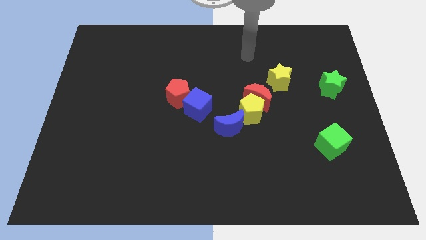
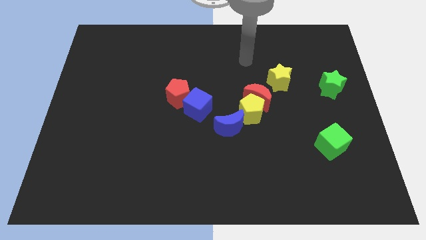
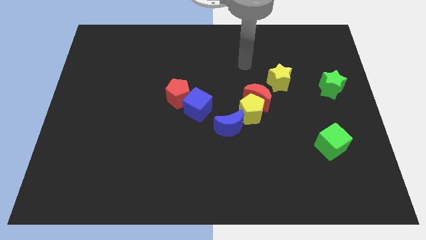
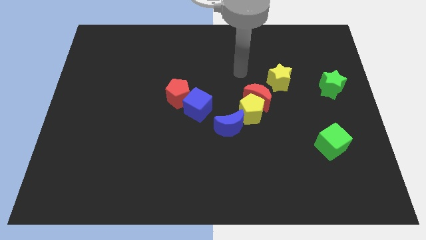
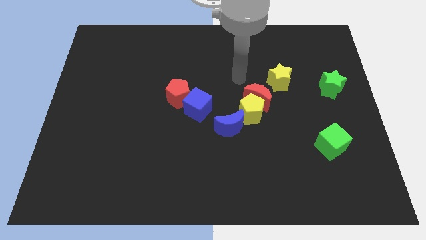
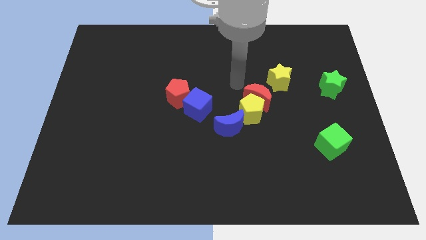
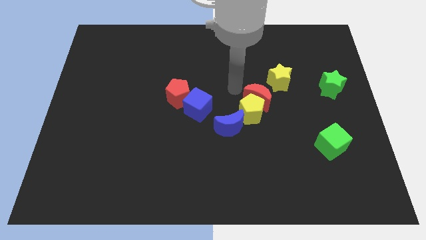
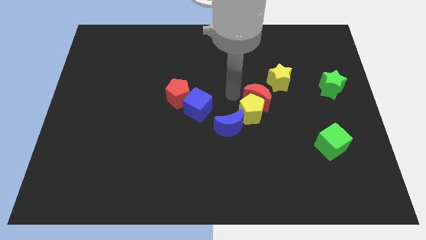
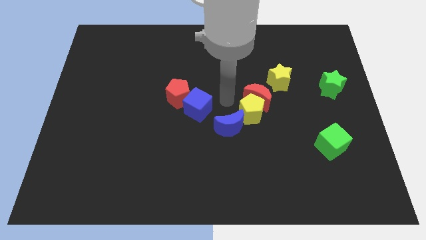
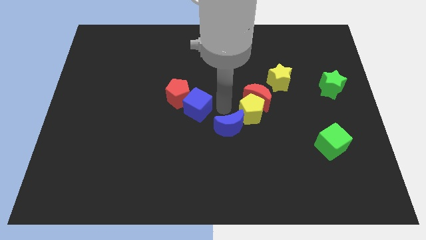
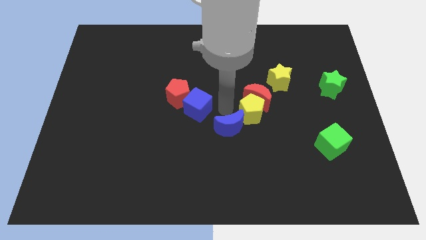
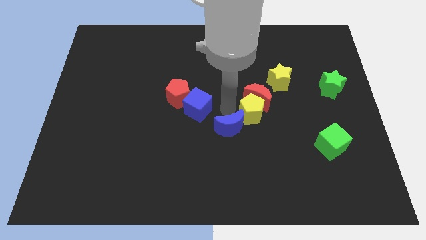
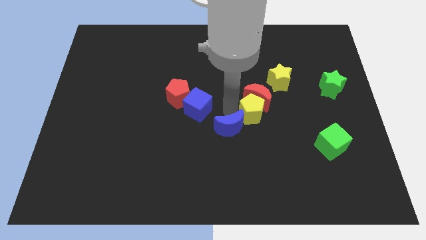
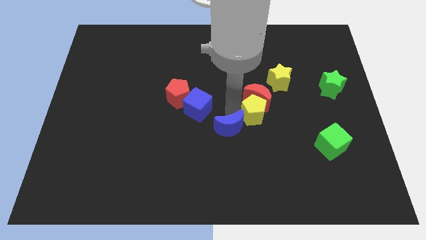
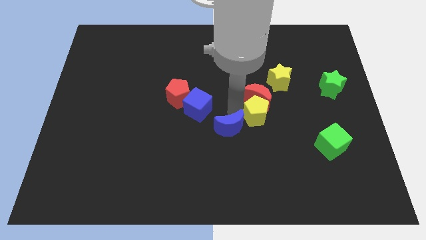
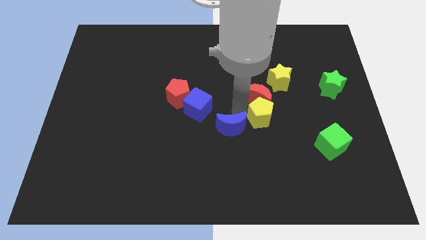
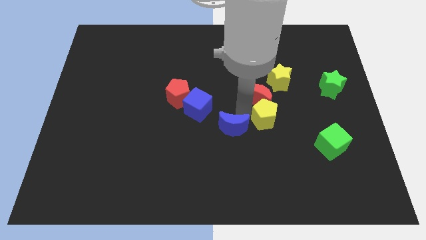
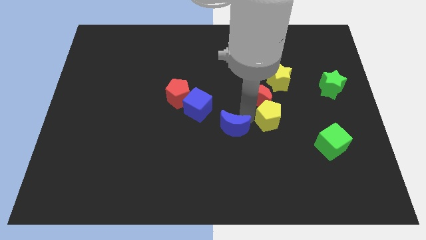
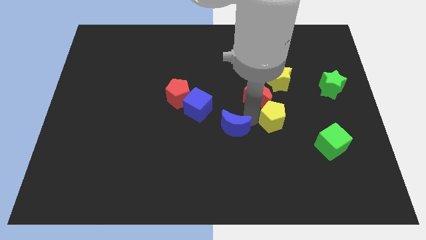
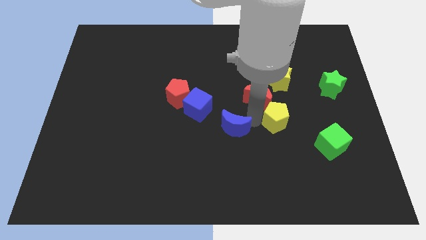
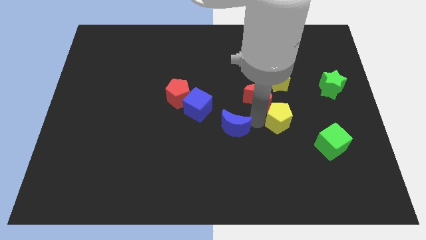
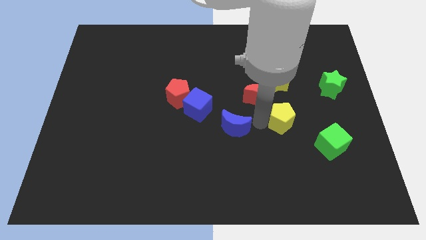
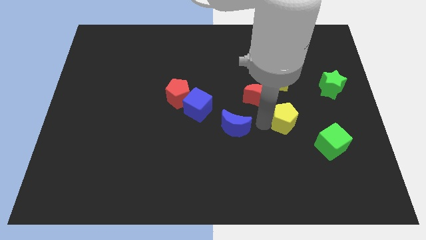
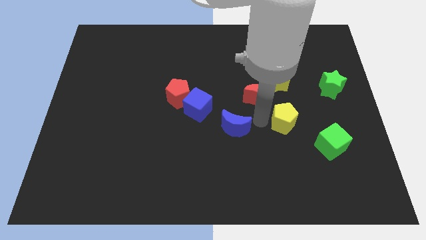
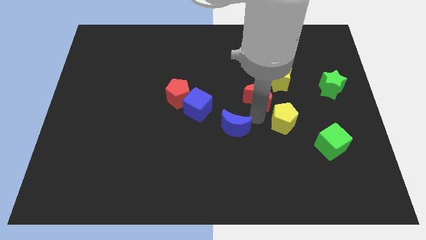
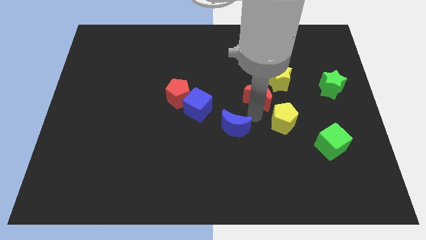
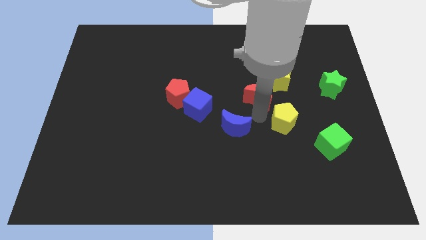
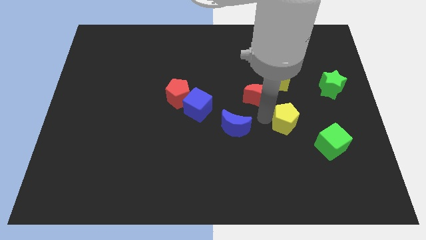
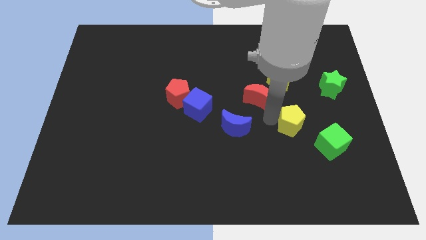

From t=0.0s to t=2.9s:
separate the yellow pentagon from the red moon and blue moon

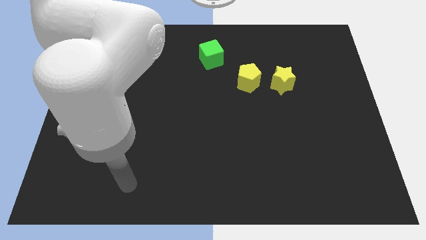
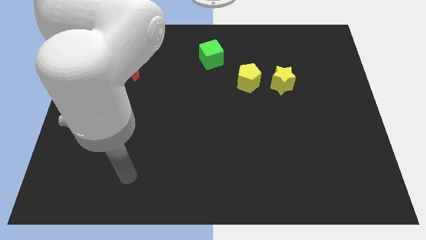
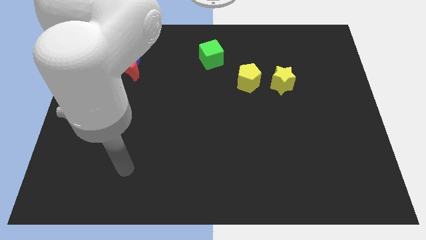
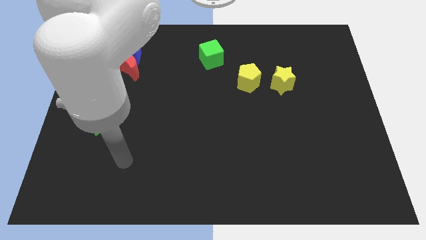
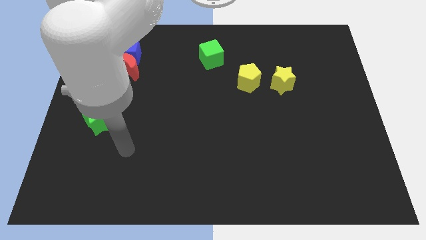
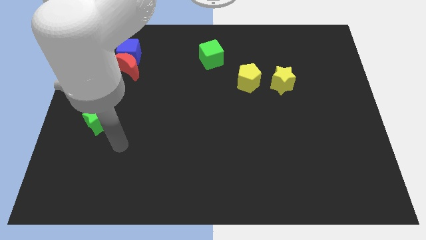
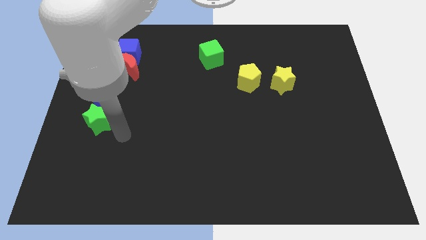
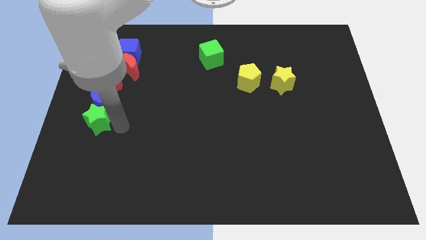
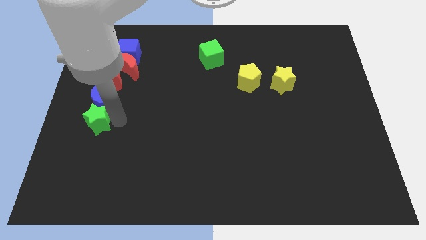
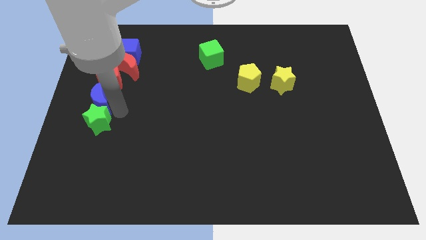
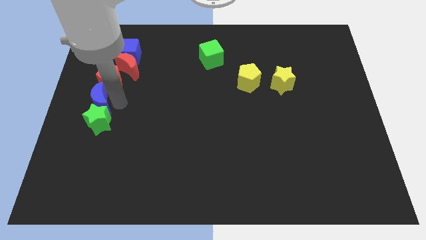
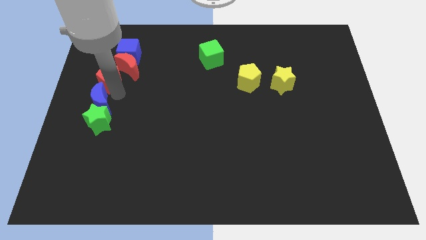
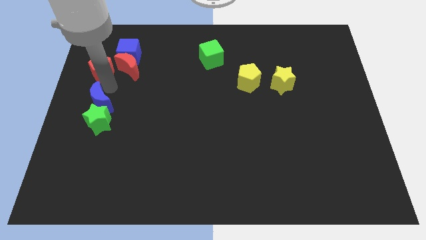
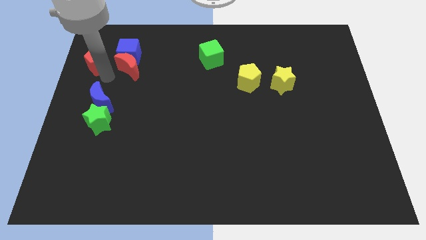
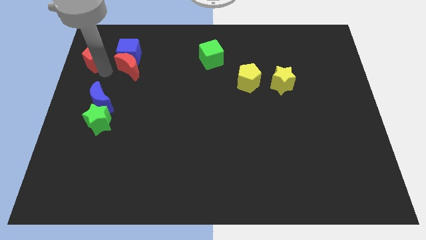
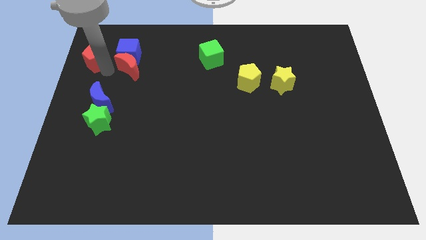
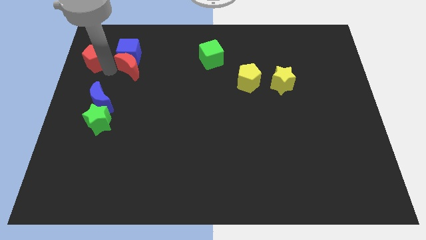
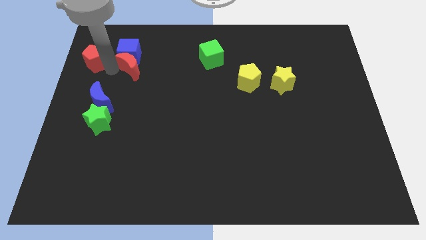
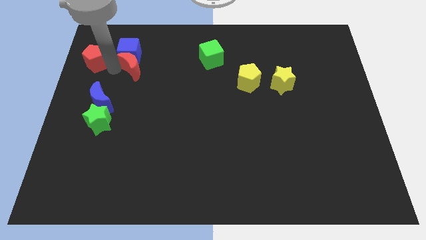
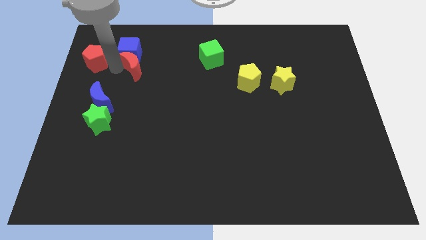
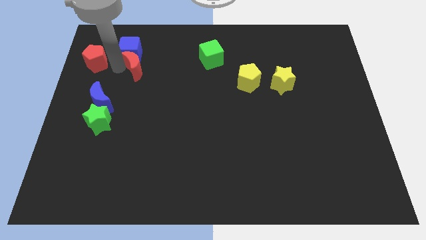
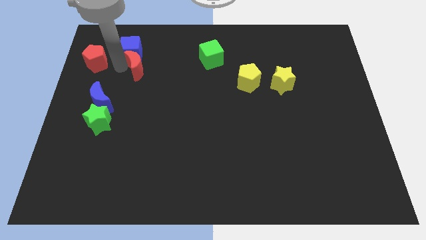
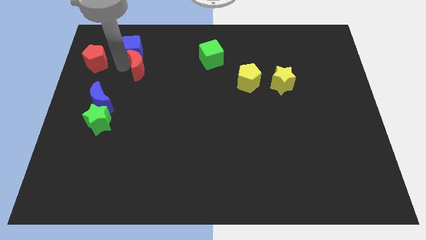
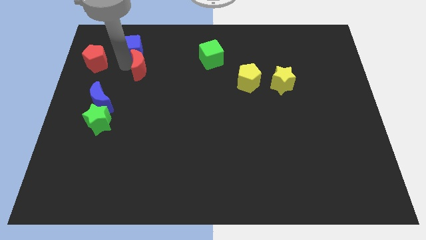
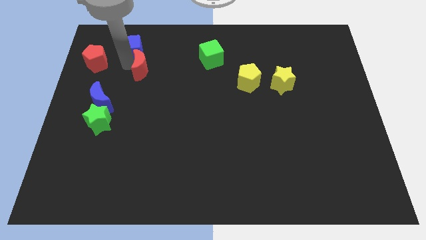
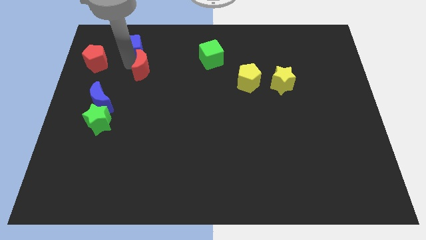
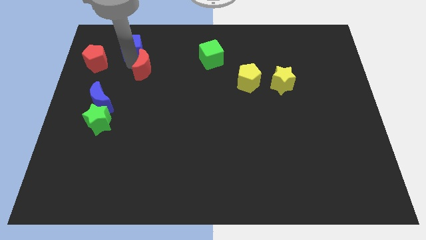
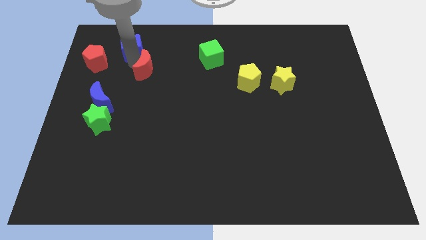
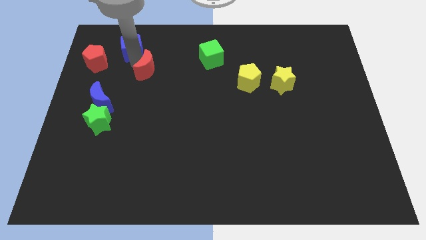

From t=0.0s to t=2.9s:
separate the red moon from the blue cube and red pentagon

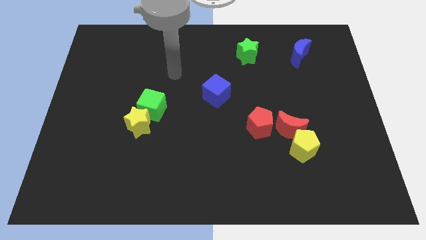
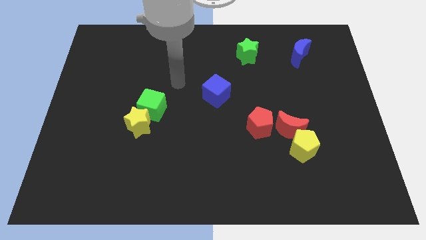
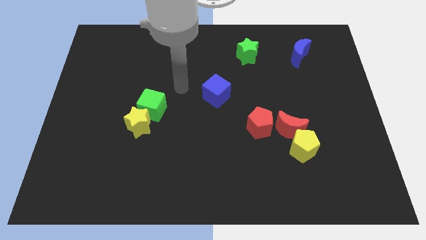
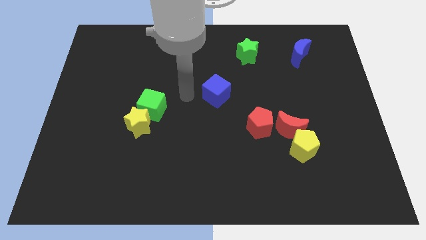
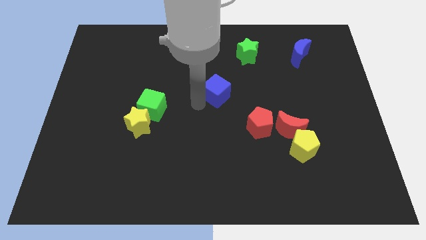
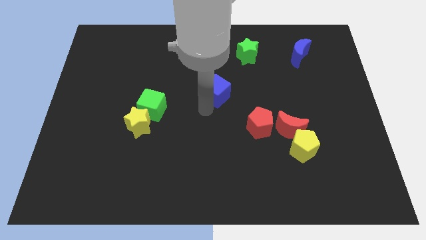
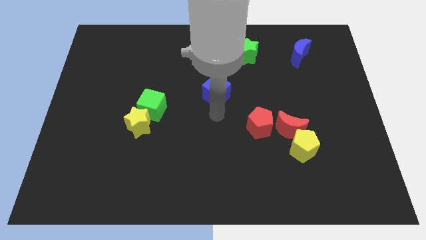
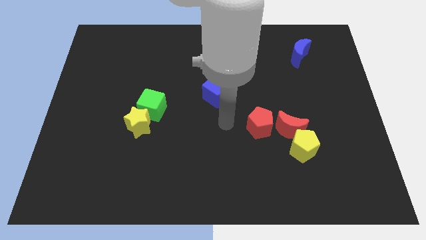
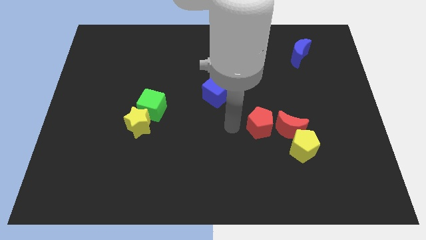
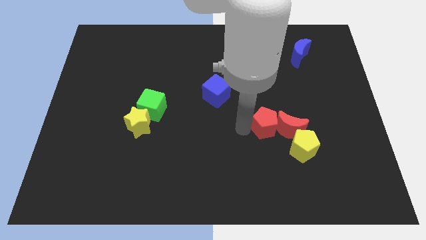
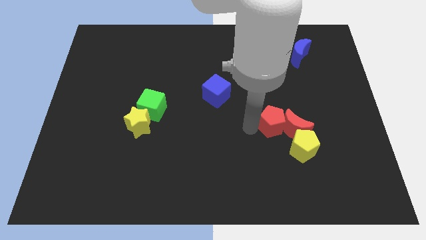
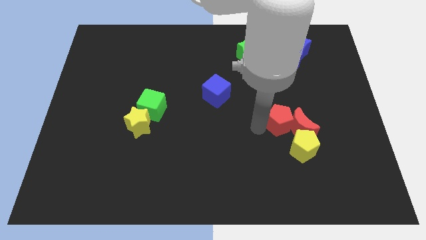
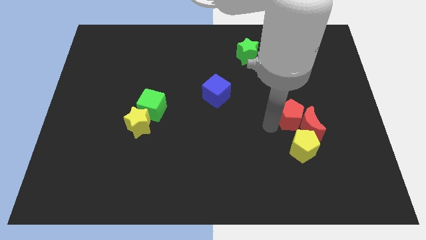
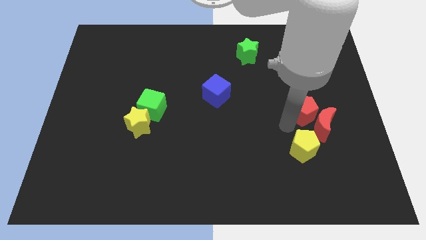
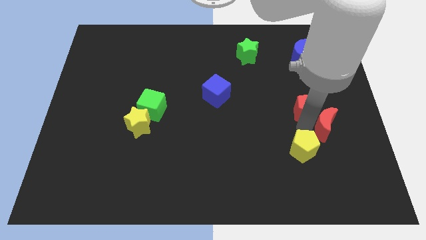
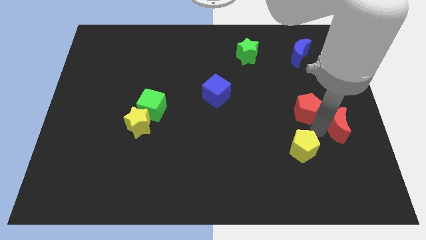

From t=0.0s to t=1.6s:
move the yellow pentagon away from the red moon

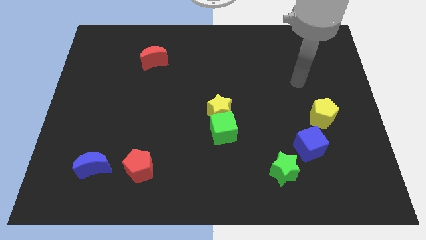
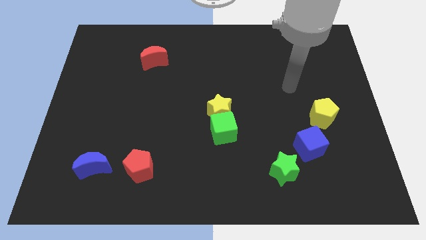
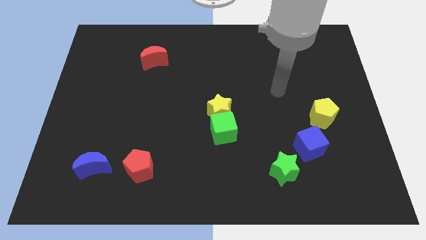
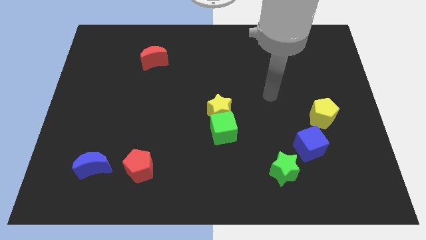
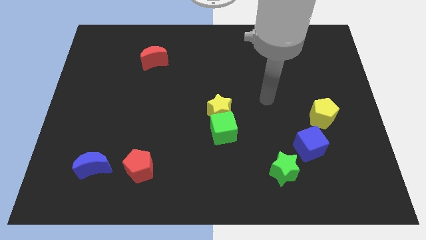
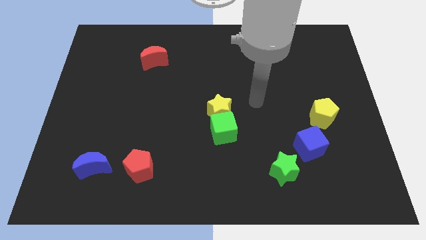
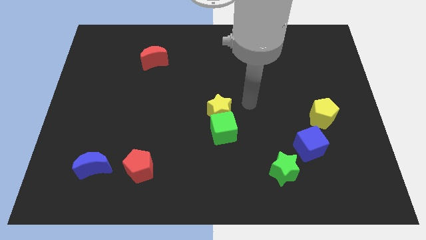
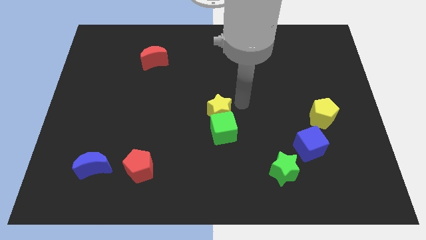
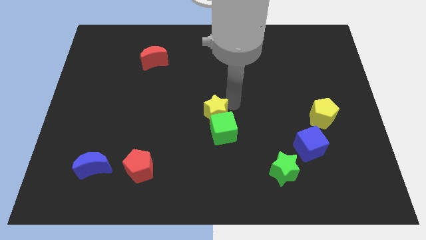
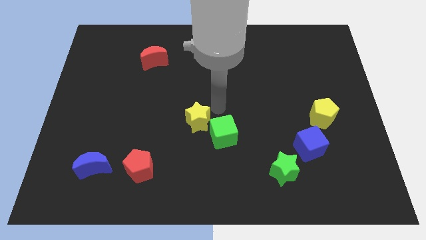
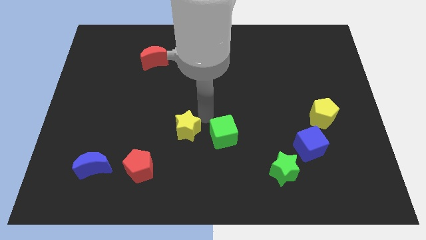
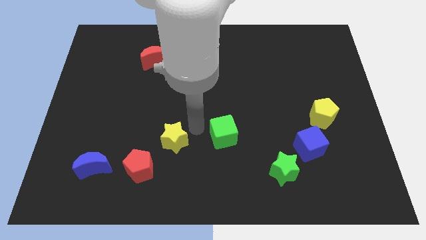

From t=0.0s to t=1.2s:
pull the green cube apart from the yellow star

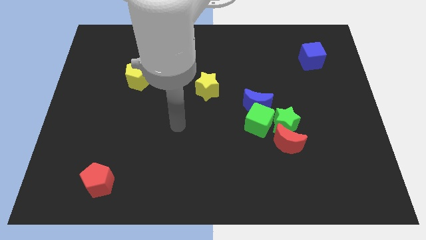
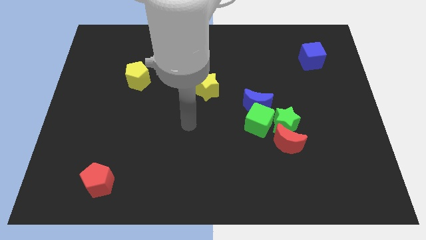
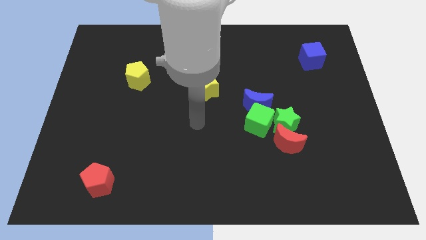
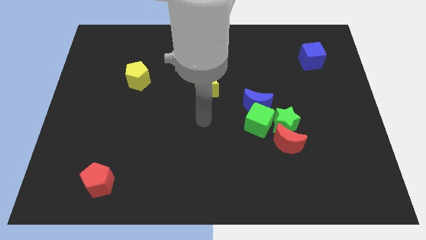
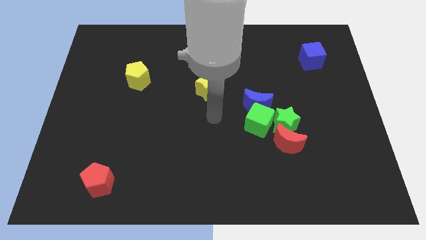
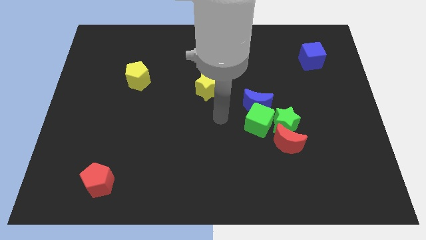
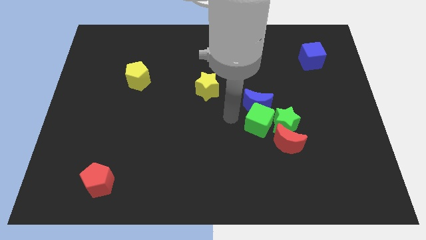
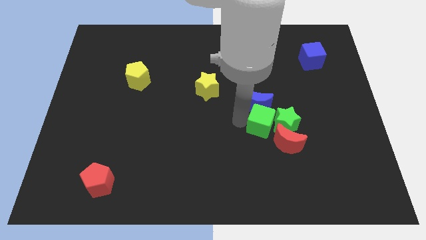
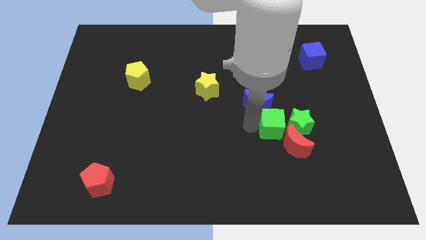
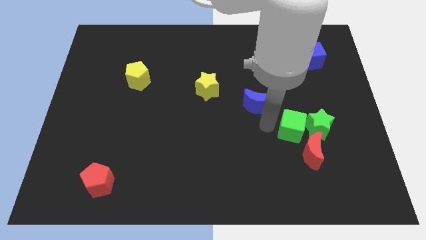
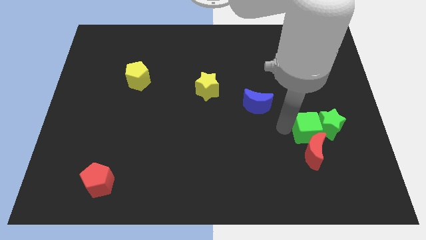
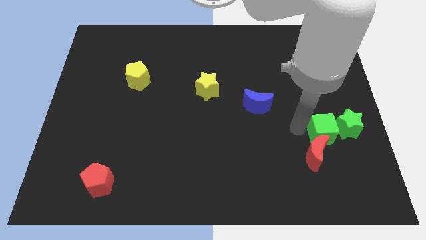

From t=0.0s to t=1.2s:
pull the green star apart from the red moon, green cube, and blue moon
